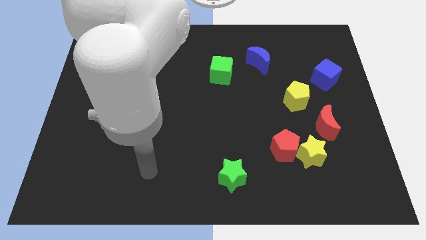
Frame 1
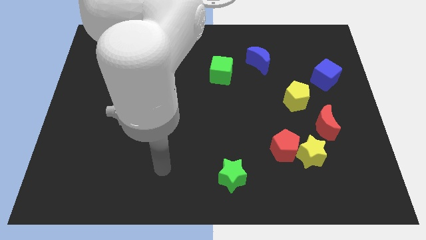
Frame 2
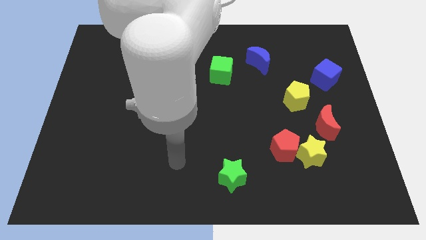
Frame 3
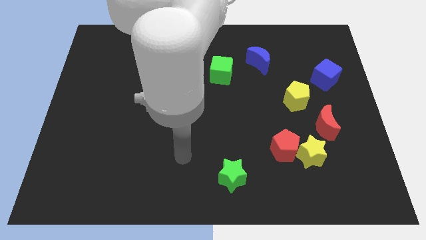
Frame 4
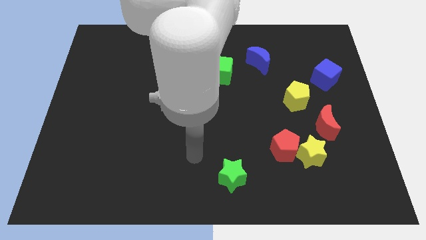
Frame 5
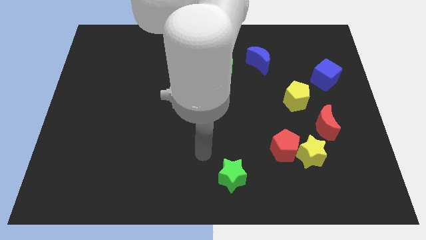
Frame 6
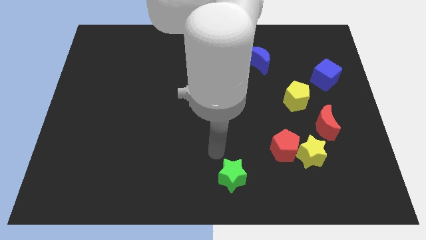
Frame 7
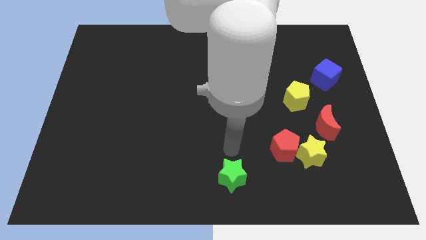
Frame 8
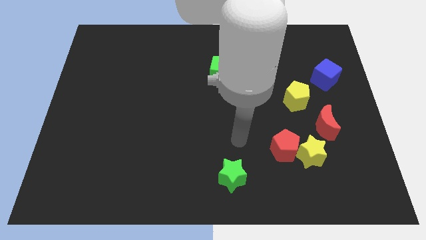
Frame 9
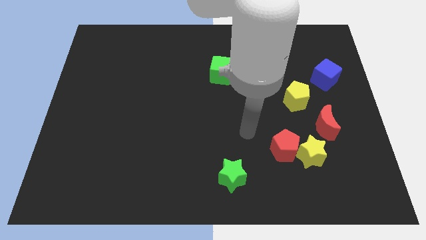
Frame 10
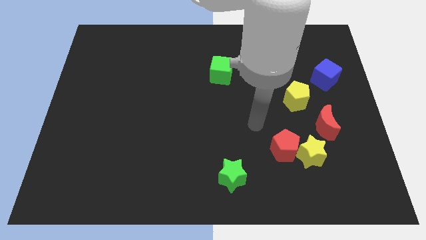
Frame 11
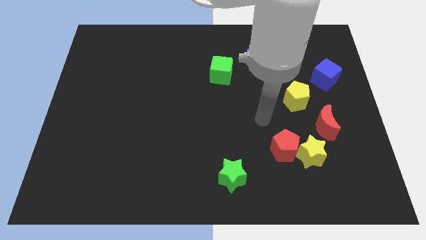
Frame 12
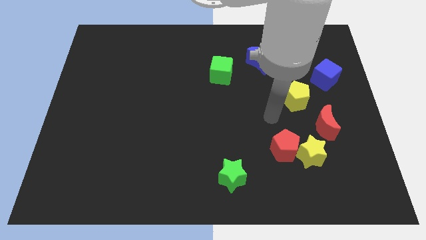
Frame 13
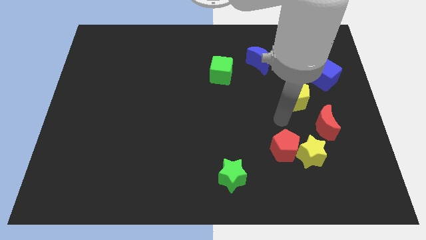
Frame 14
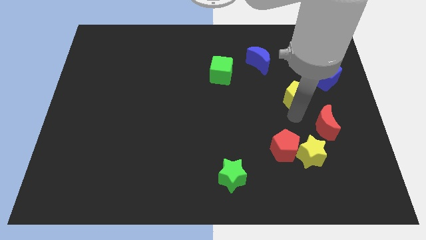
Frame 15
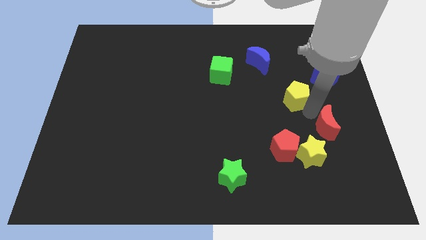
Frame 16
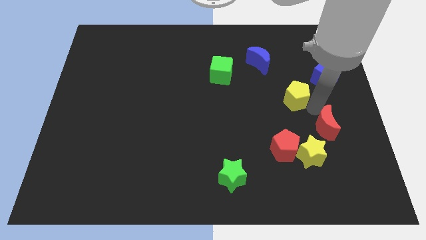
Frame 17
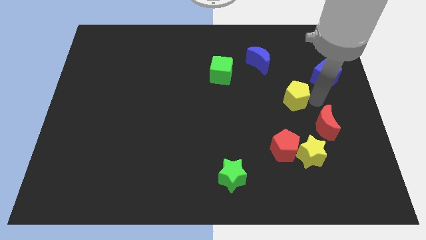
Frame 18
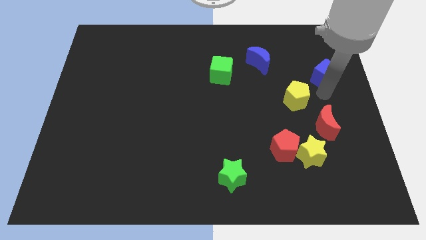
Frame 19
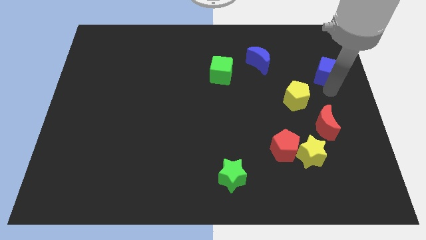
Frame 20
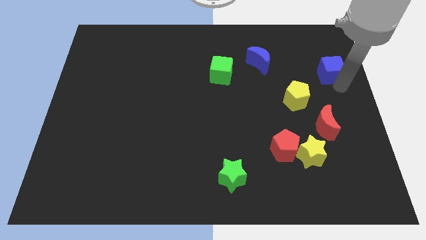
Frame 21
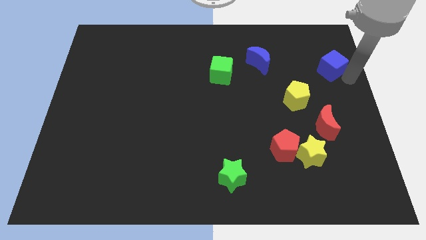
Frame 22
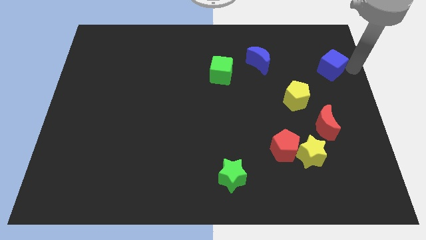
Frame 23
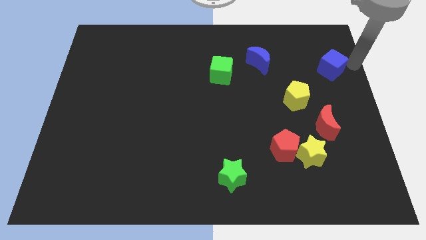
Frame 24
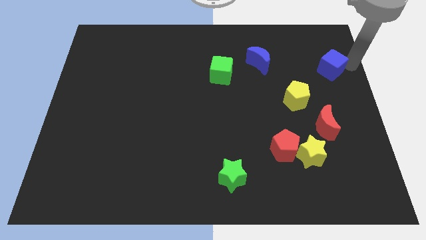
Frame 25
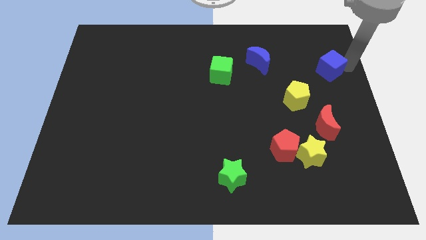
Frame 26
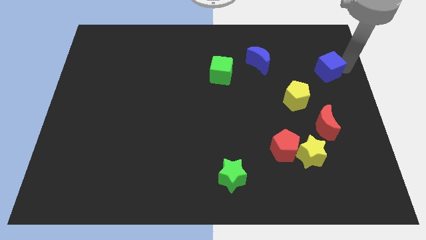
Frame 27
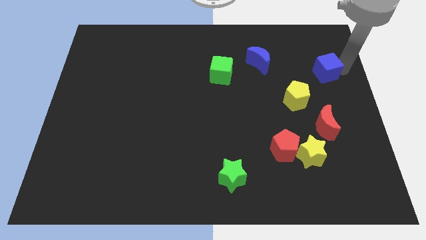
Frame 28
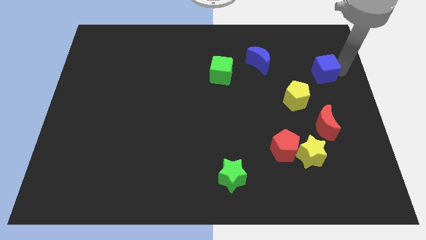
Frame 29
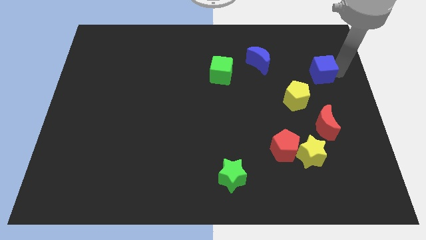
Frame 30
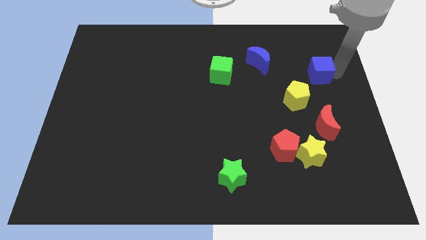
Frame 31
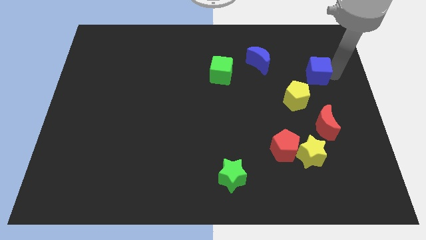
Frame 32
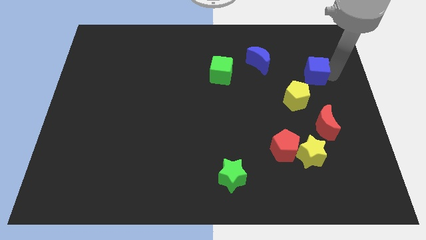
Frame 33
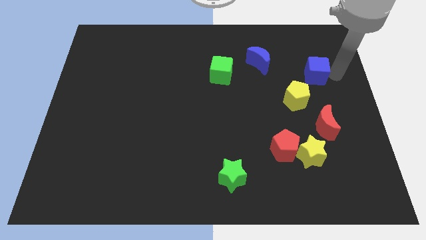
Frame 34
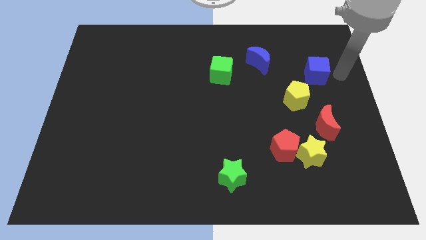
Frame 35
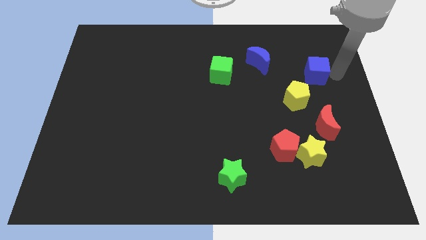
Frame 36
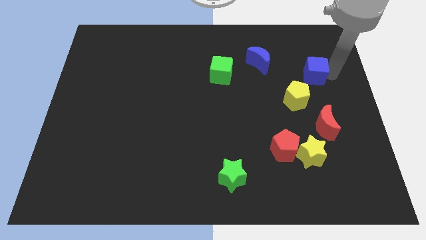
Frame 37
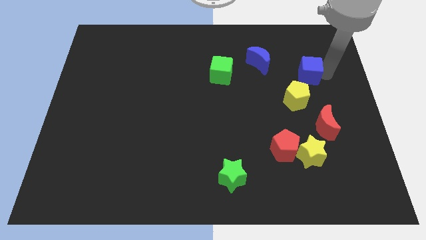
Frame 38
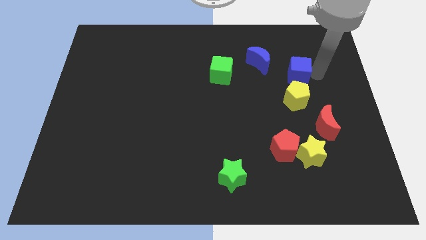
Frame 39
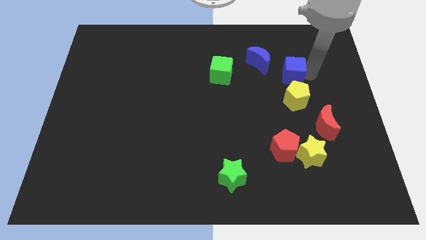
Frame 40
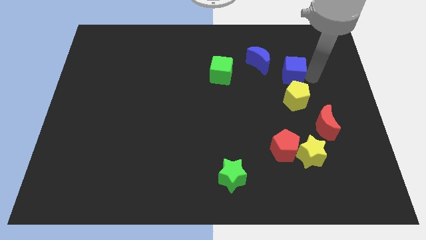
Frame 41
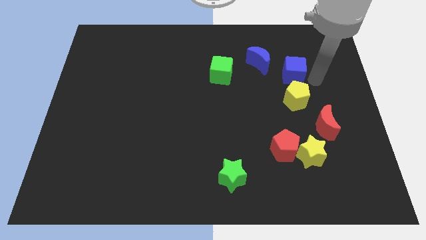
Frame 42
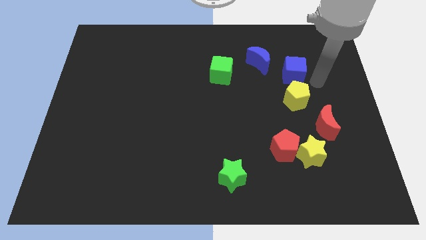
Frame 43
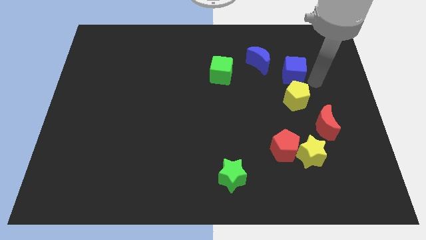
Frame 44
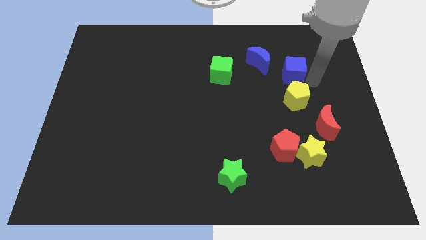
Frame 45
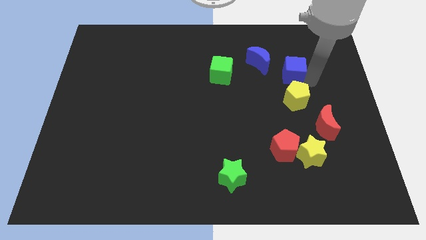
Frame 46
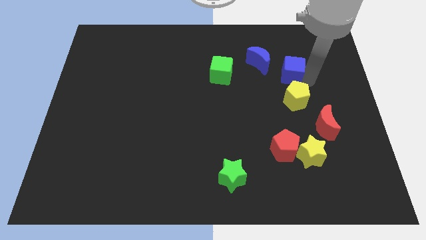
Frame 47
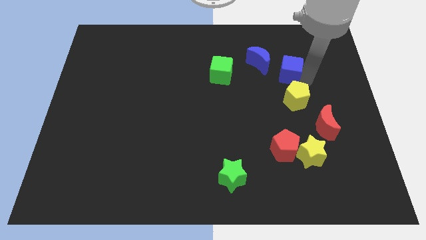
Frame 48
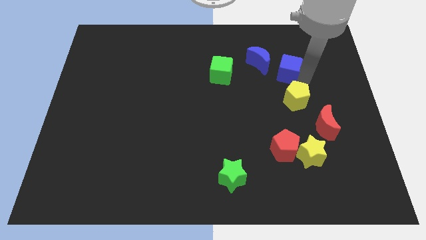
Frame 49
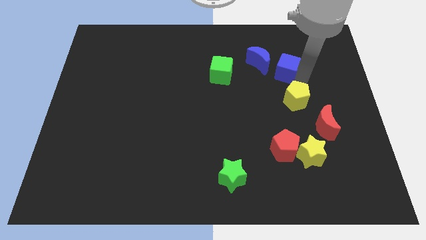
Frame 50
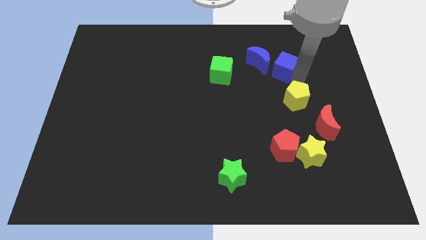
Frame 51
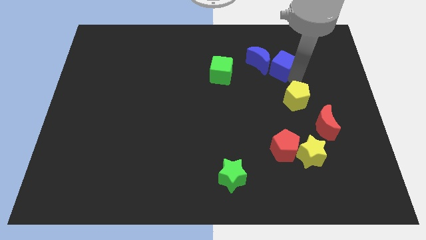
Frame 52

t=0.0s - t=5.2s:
push the blue cube to the blue moon

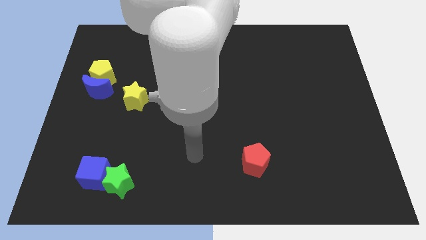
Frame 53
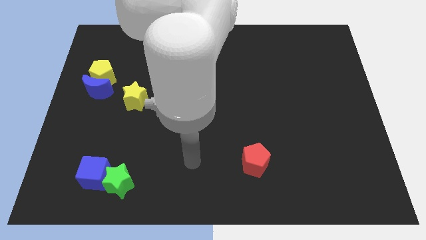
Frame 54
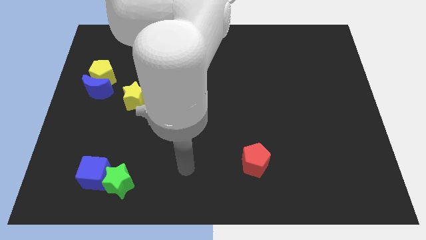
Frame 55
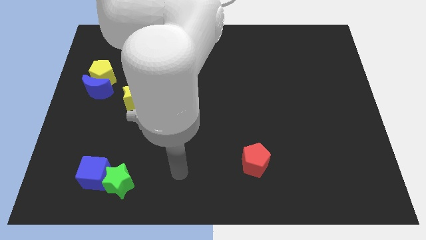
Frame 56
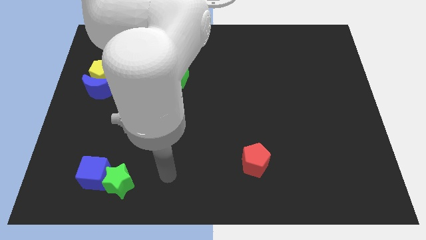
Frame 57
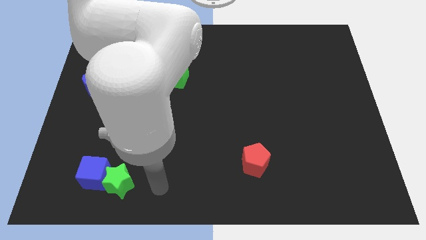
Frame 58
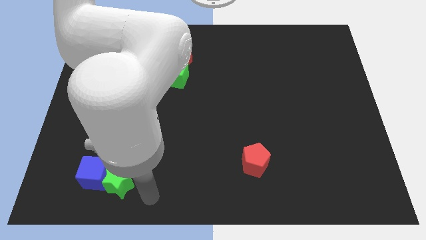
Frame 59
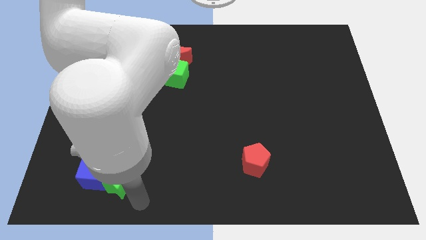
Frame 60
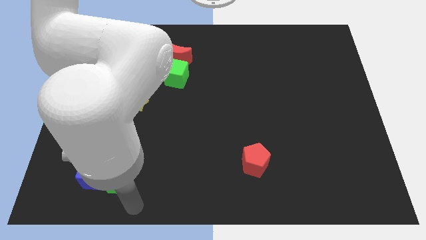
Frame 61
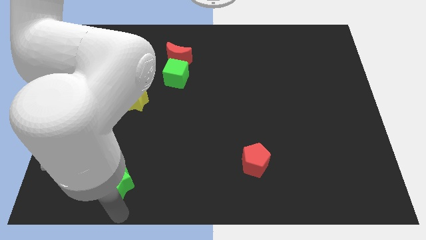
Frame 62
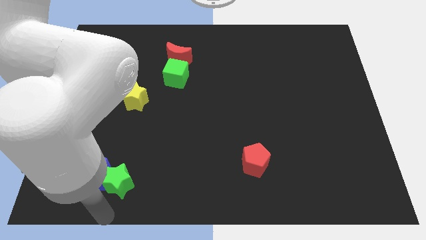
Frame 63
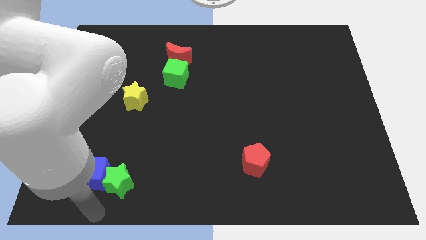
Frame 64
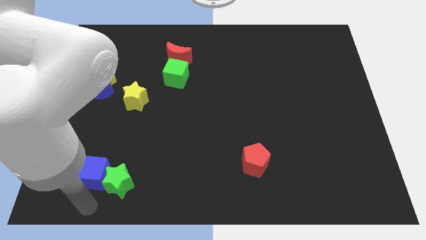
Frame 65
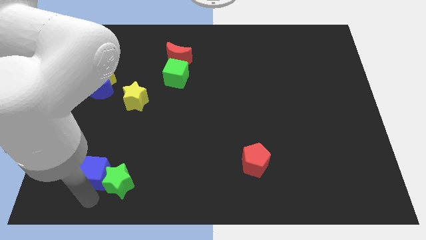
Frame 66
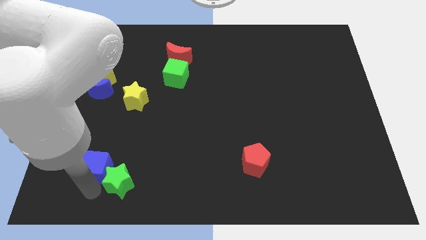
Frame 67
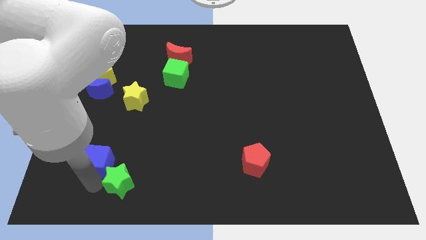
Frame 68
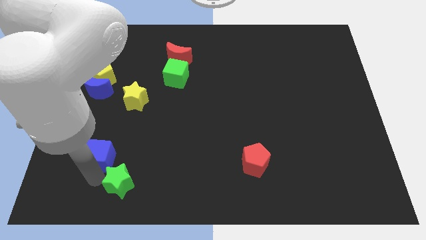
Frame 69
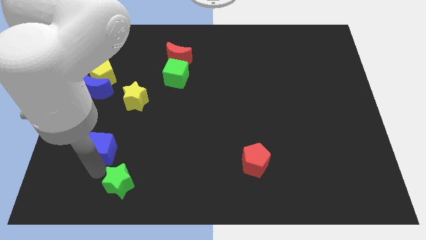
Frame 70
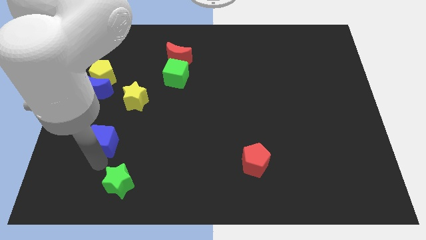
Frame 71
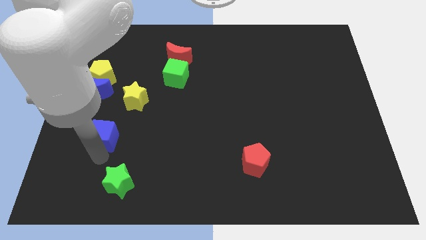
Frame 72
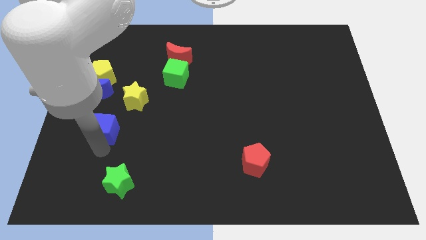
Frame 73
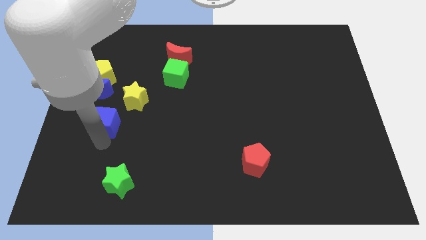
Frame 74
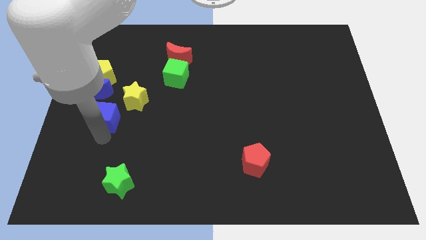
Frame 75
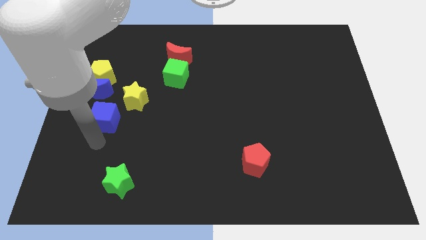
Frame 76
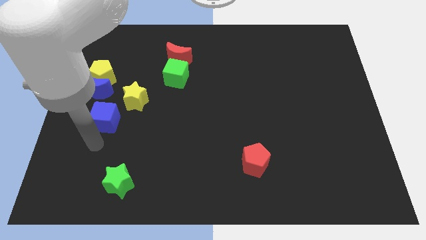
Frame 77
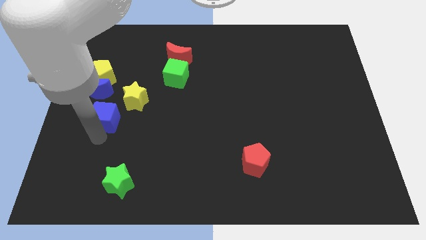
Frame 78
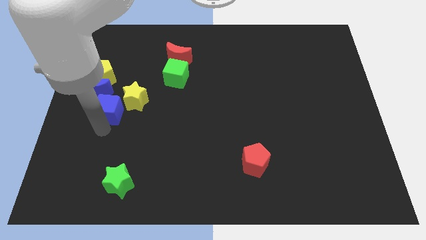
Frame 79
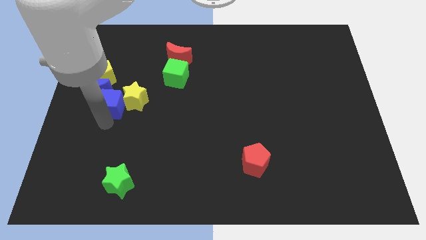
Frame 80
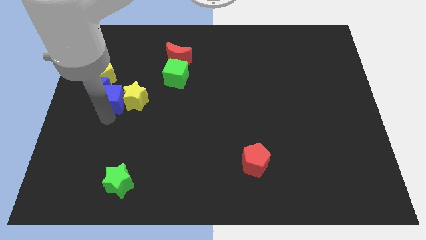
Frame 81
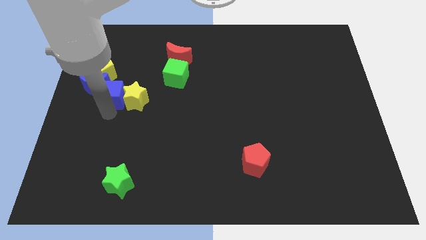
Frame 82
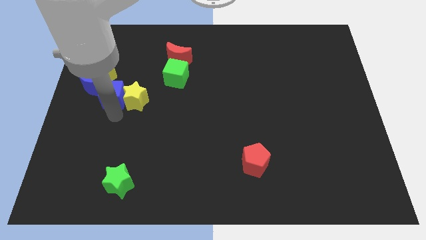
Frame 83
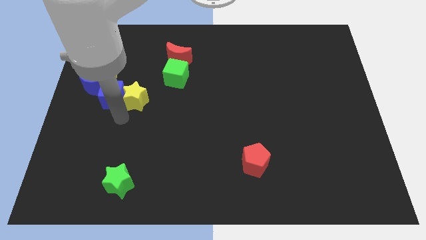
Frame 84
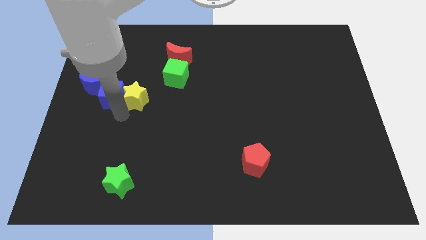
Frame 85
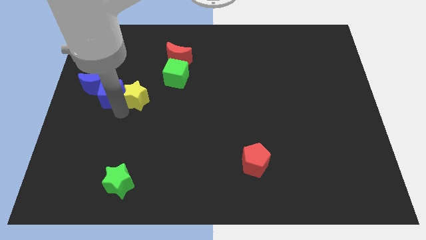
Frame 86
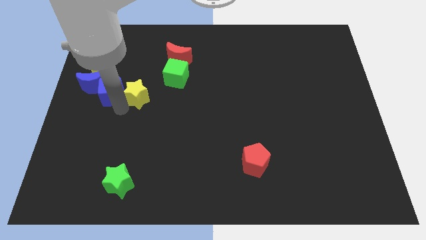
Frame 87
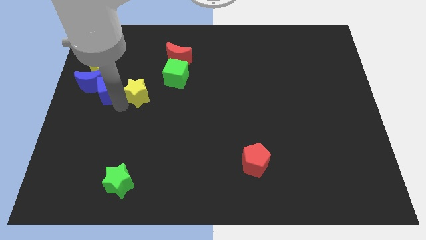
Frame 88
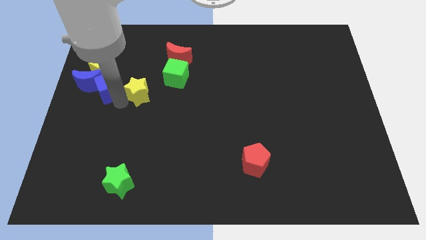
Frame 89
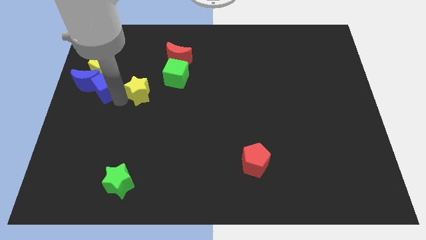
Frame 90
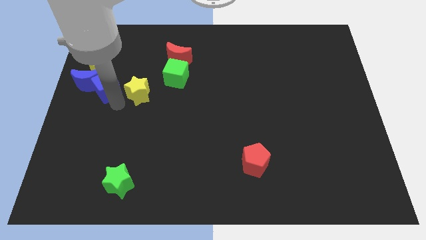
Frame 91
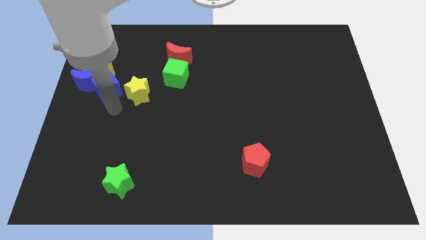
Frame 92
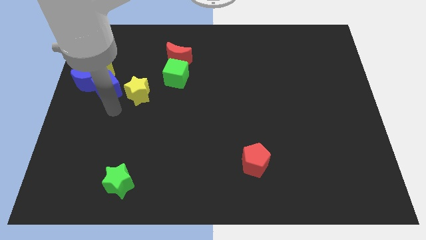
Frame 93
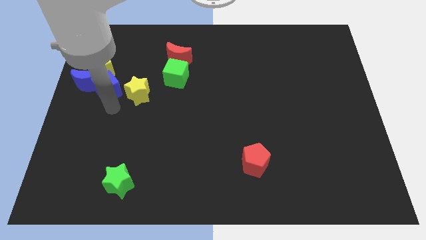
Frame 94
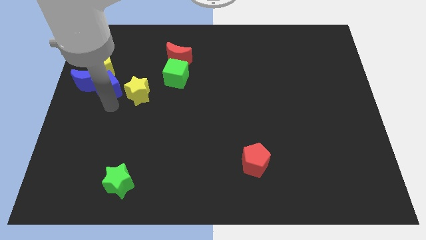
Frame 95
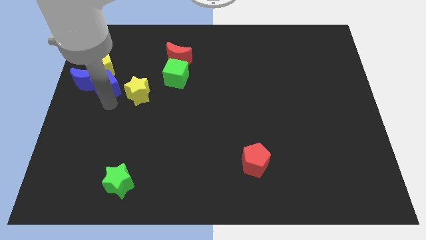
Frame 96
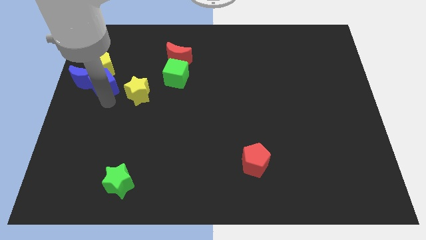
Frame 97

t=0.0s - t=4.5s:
put the blue cube close to the yellow pentagon
